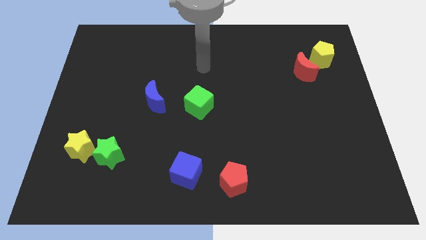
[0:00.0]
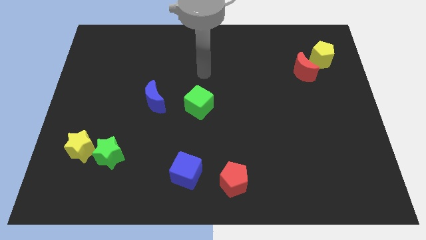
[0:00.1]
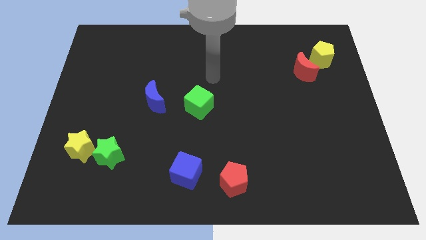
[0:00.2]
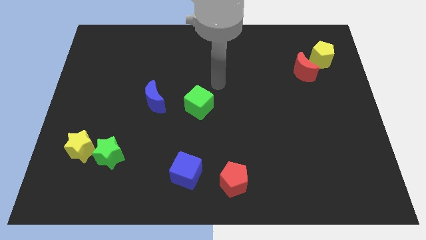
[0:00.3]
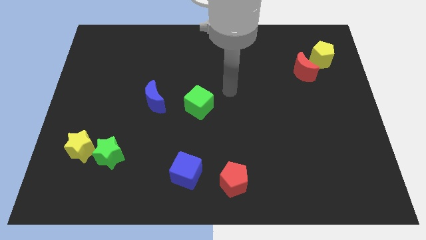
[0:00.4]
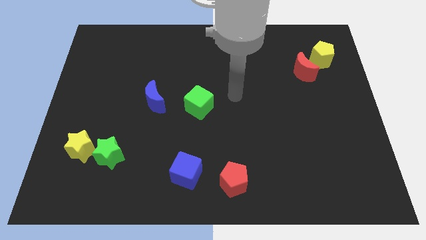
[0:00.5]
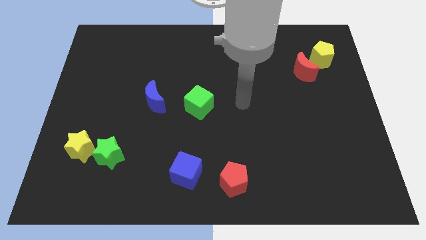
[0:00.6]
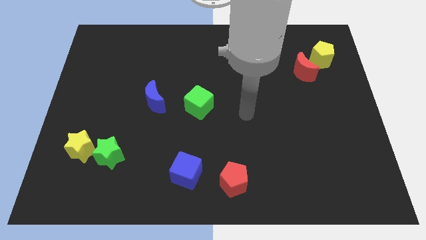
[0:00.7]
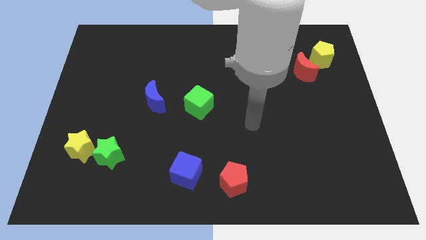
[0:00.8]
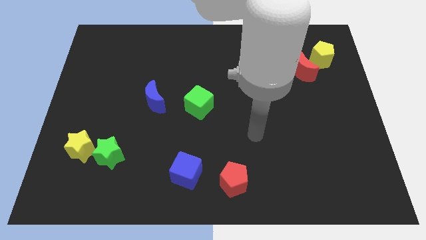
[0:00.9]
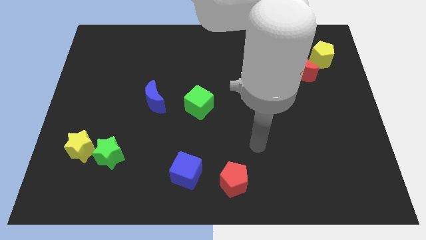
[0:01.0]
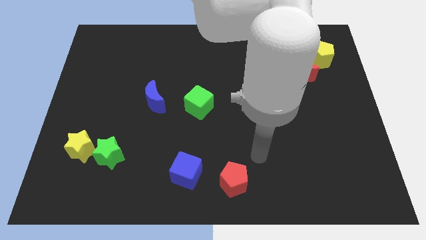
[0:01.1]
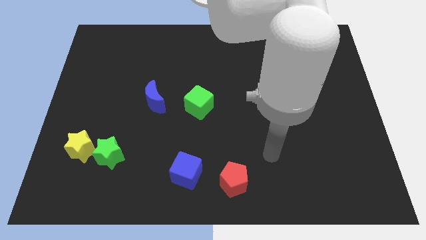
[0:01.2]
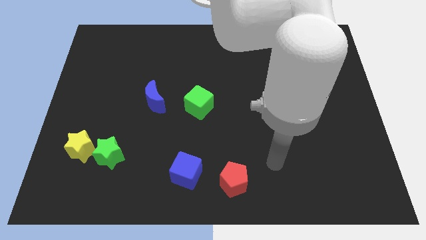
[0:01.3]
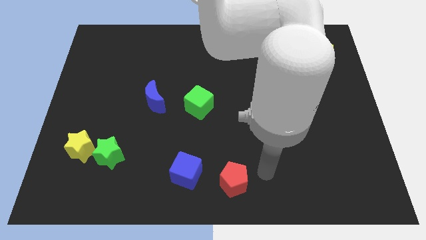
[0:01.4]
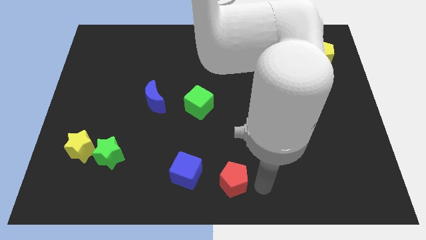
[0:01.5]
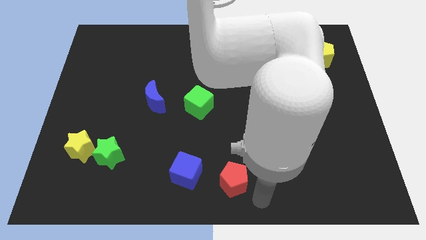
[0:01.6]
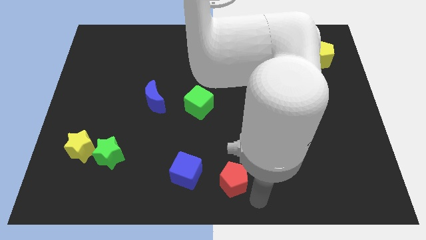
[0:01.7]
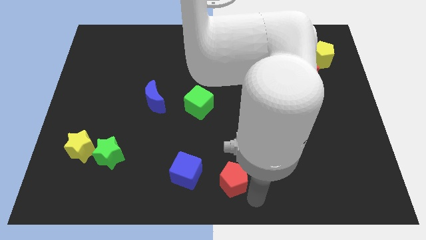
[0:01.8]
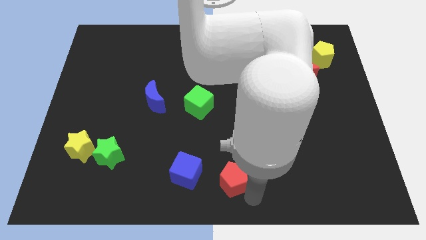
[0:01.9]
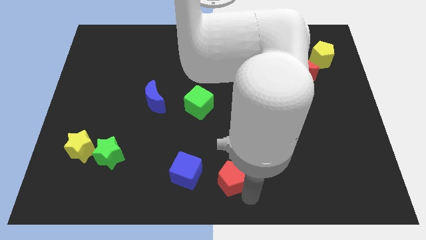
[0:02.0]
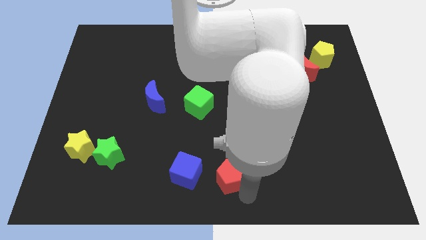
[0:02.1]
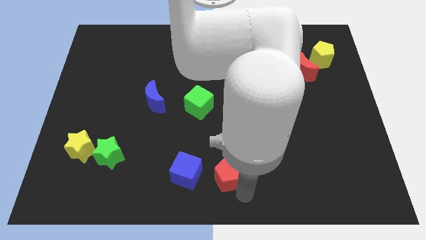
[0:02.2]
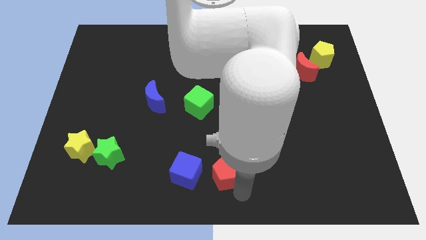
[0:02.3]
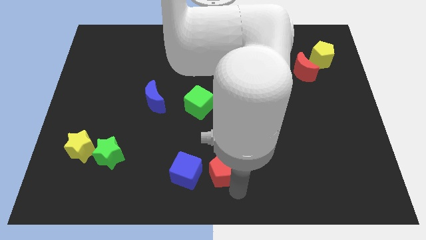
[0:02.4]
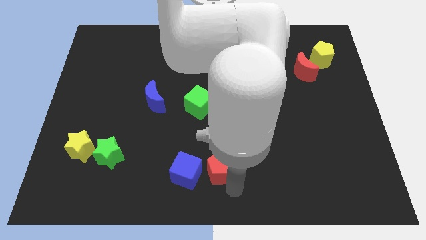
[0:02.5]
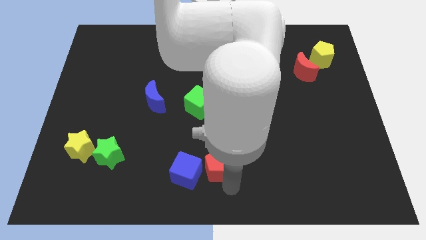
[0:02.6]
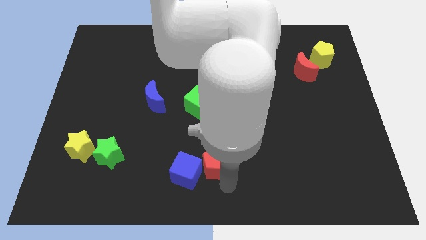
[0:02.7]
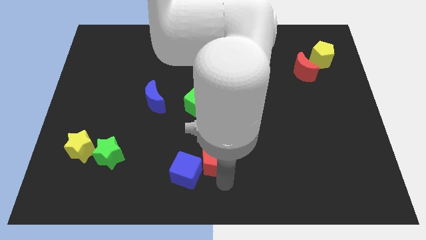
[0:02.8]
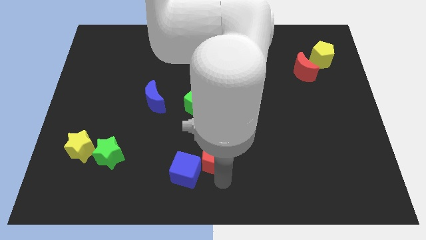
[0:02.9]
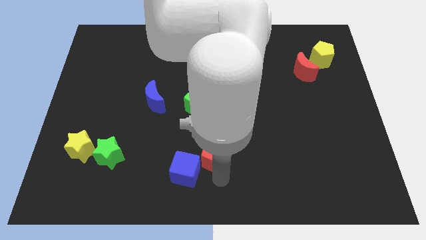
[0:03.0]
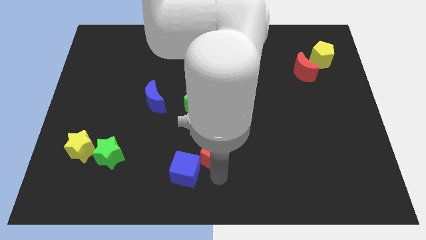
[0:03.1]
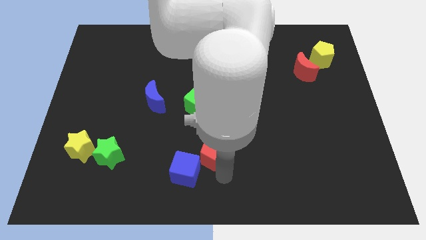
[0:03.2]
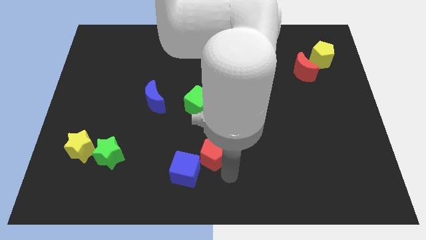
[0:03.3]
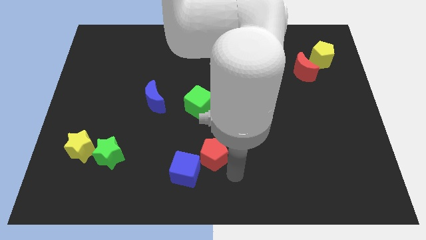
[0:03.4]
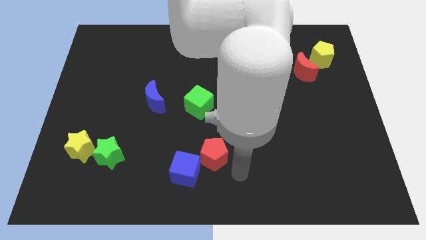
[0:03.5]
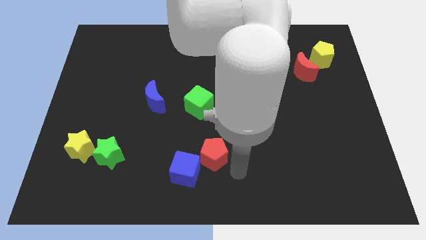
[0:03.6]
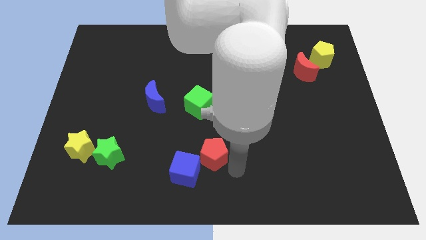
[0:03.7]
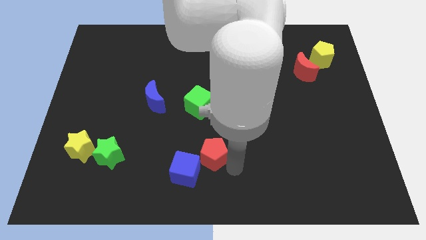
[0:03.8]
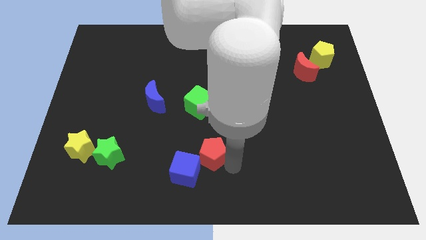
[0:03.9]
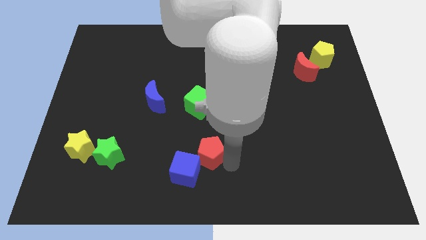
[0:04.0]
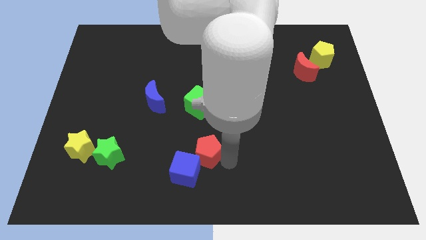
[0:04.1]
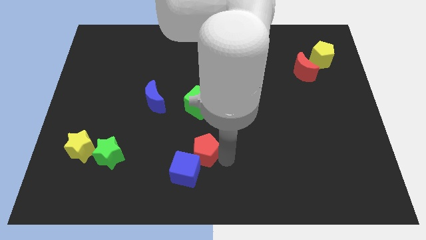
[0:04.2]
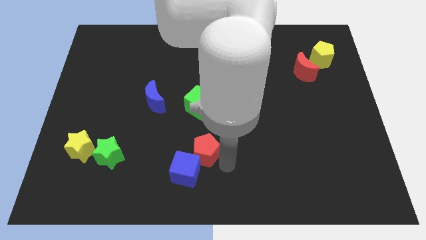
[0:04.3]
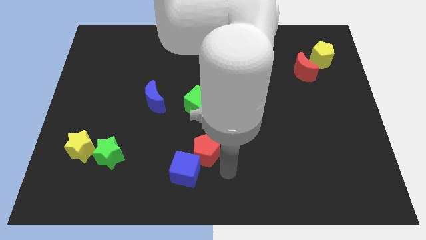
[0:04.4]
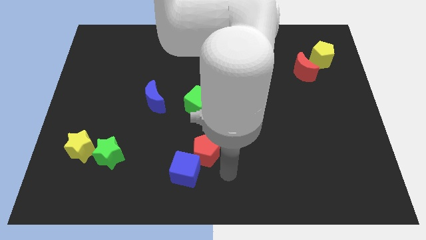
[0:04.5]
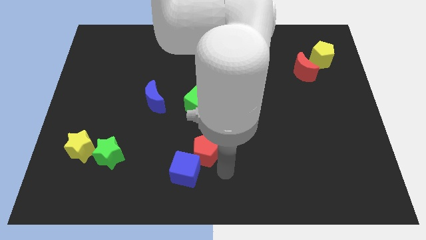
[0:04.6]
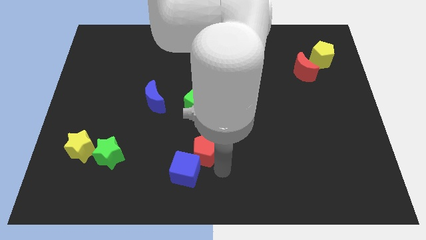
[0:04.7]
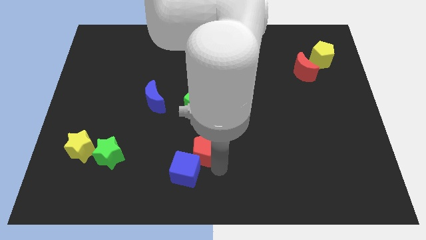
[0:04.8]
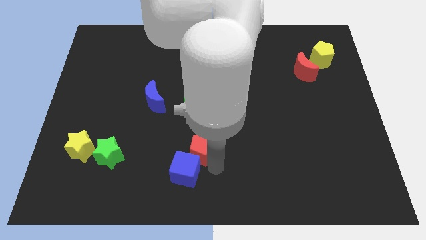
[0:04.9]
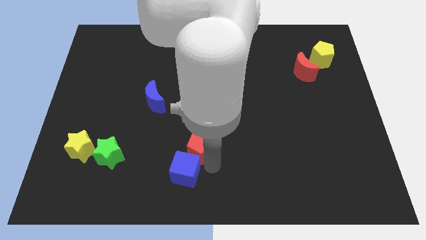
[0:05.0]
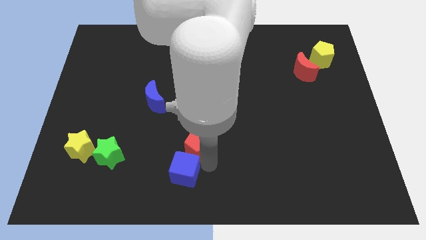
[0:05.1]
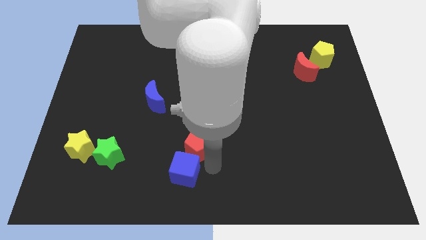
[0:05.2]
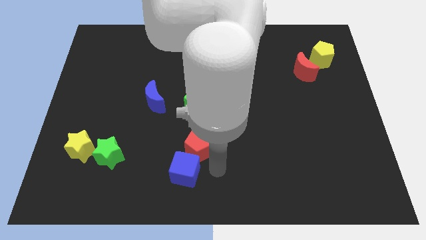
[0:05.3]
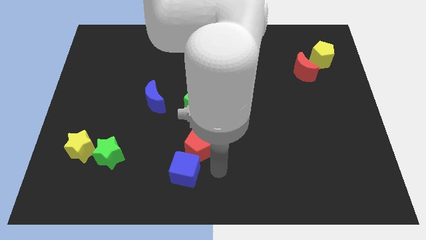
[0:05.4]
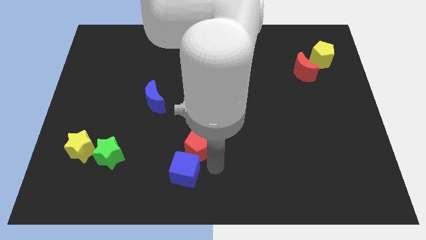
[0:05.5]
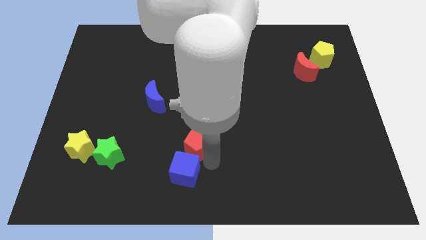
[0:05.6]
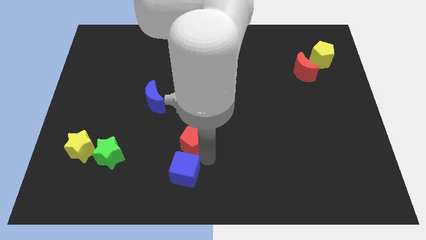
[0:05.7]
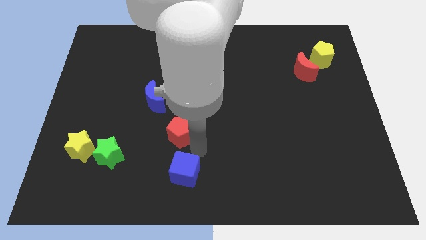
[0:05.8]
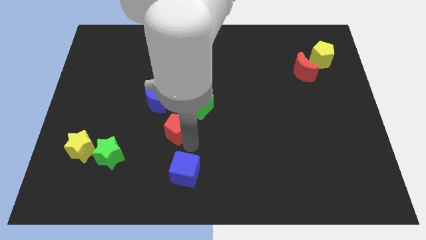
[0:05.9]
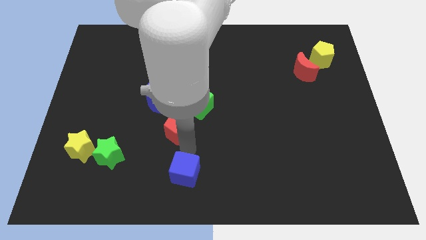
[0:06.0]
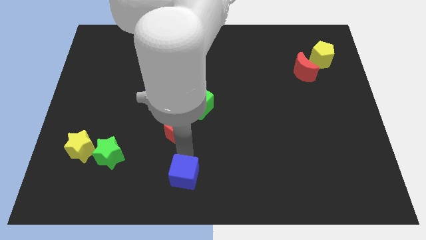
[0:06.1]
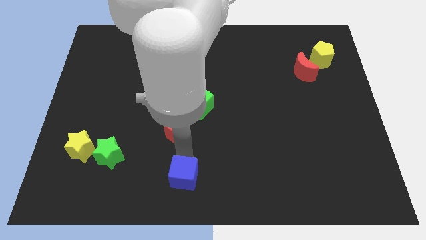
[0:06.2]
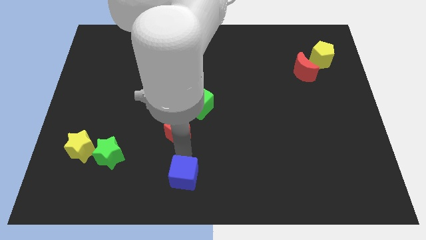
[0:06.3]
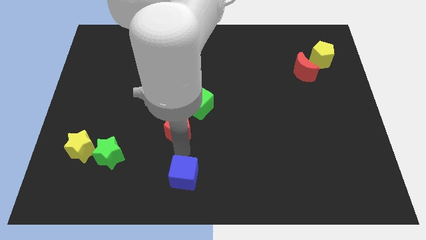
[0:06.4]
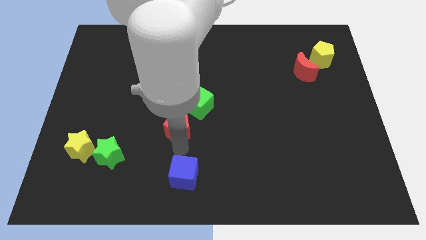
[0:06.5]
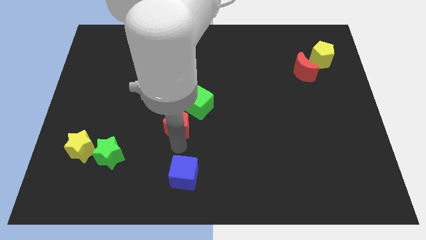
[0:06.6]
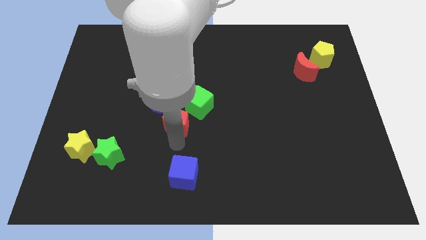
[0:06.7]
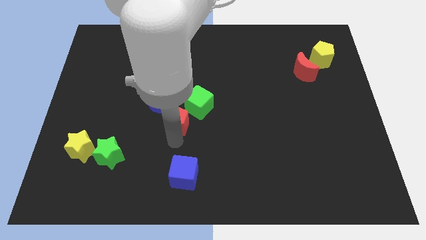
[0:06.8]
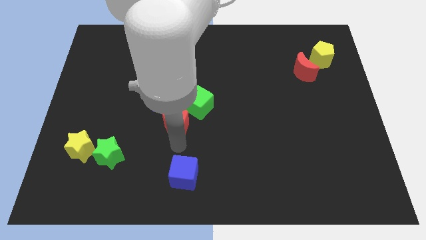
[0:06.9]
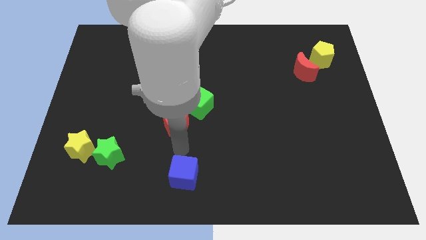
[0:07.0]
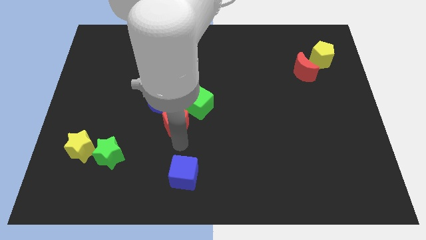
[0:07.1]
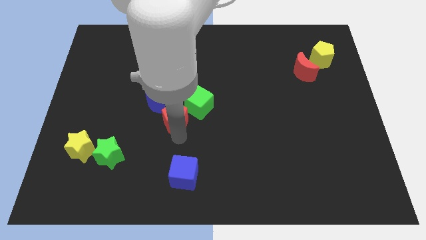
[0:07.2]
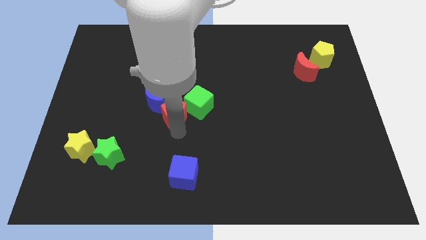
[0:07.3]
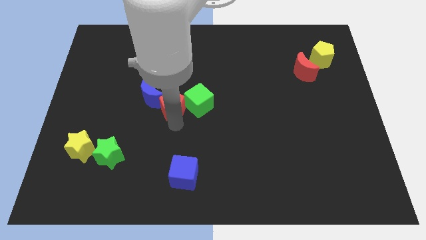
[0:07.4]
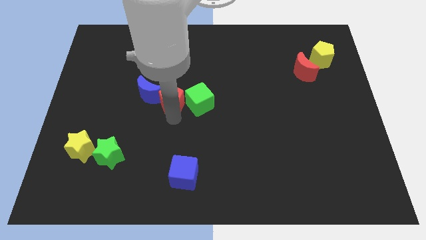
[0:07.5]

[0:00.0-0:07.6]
put the red pentagon to the top left side of the green cube
